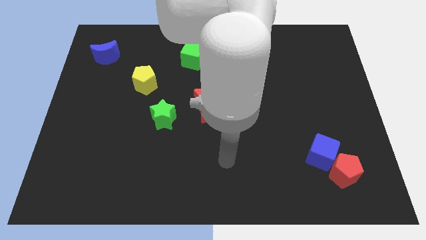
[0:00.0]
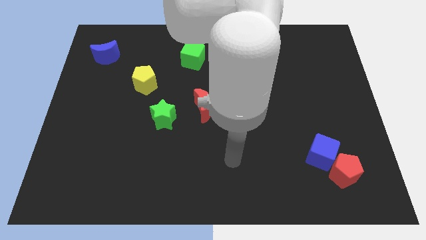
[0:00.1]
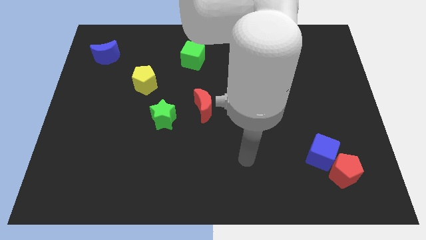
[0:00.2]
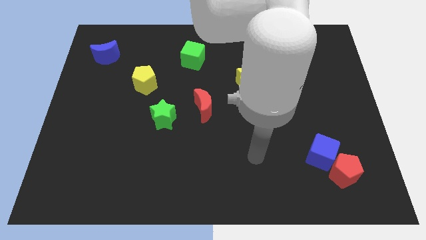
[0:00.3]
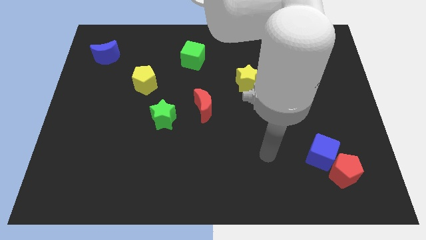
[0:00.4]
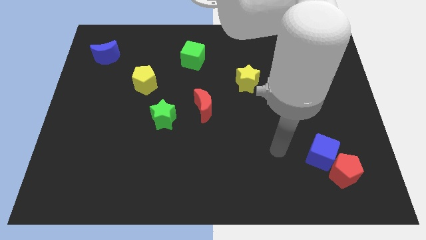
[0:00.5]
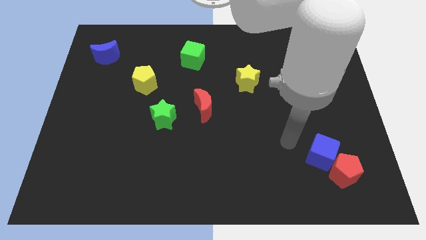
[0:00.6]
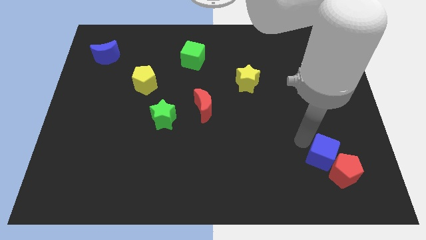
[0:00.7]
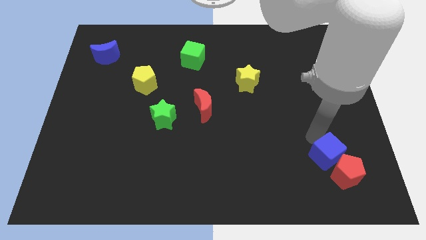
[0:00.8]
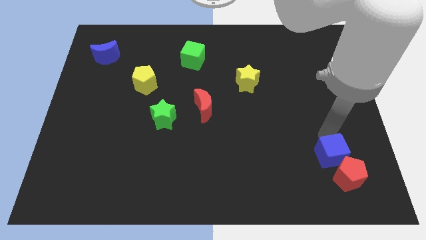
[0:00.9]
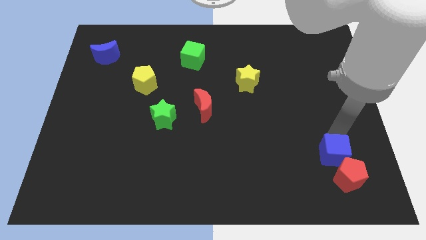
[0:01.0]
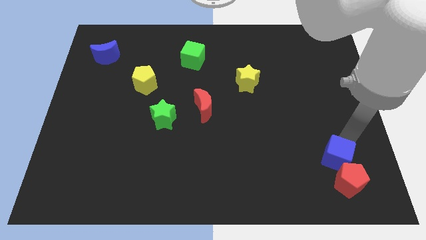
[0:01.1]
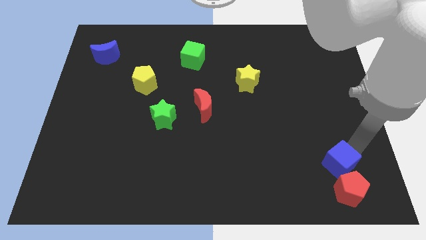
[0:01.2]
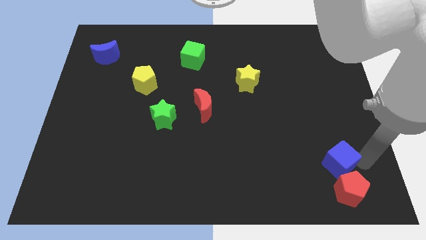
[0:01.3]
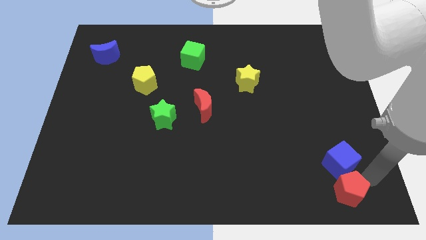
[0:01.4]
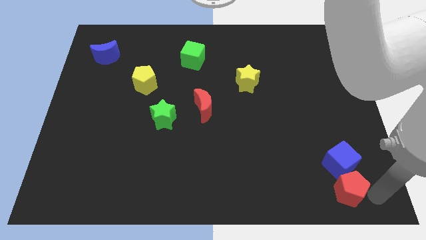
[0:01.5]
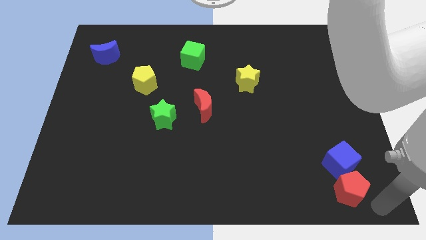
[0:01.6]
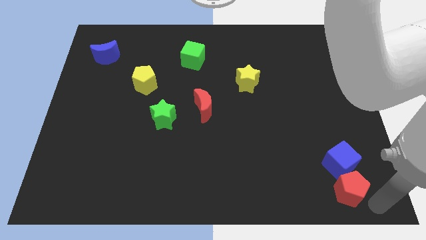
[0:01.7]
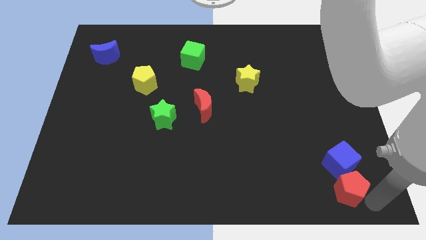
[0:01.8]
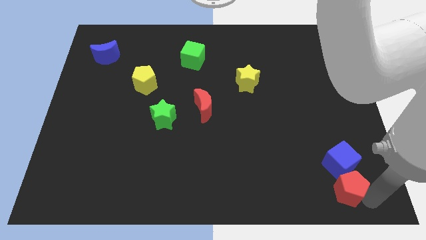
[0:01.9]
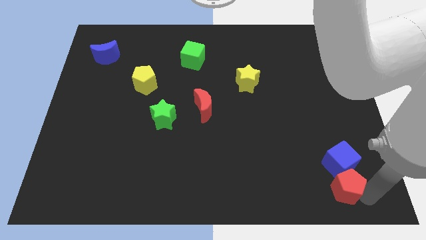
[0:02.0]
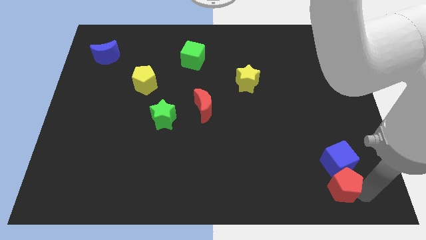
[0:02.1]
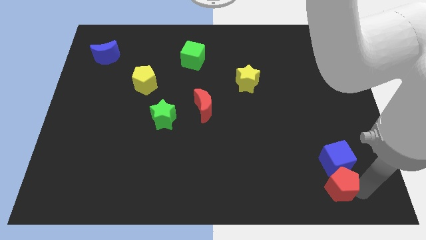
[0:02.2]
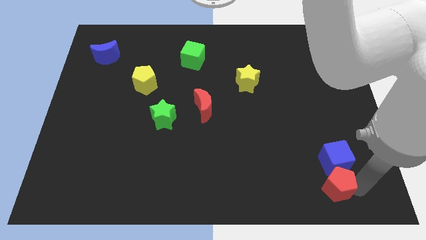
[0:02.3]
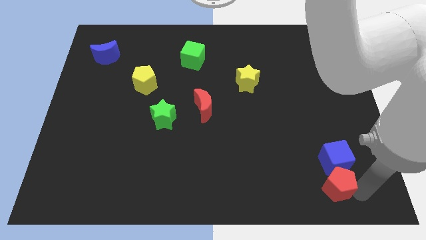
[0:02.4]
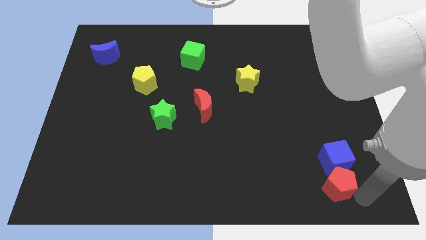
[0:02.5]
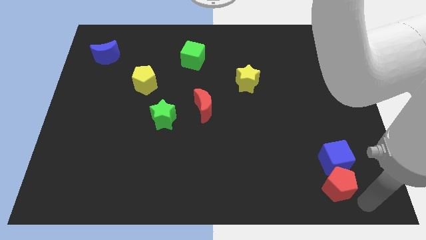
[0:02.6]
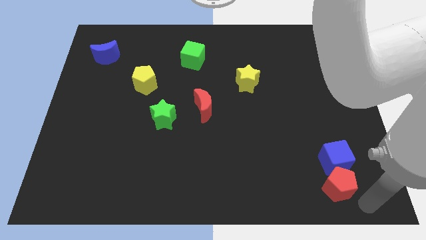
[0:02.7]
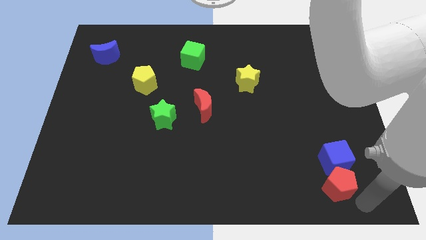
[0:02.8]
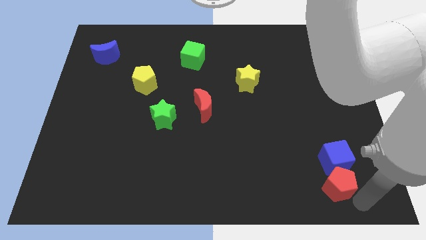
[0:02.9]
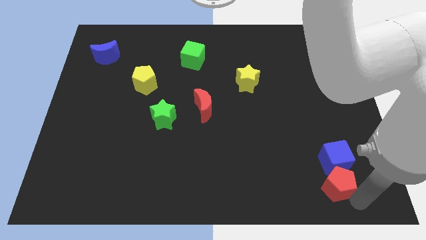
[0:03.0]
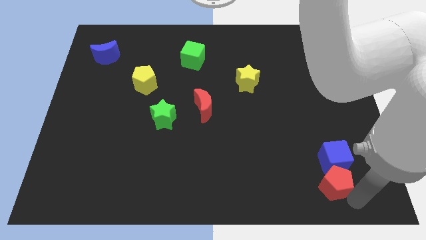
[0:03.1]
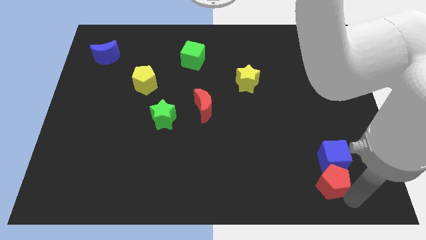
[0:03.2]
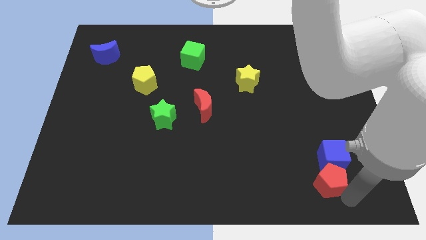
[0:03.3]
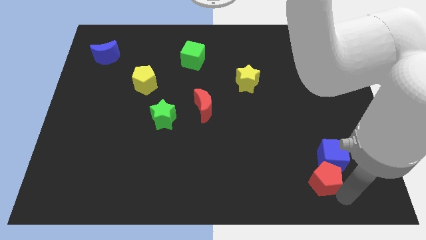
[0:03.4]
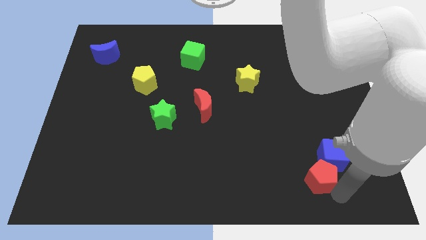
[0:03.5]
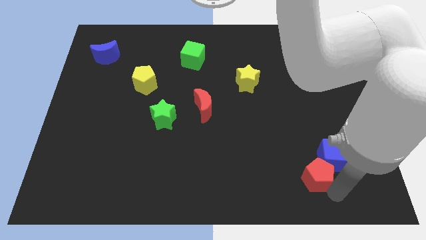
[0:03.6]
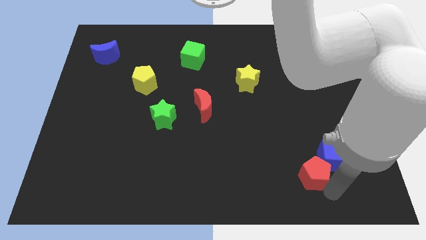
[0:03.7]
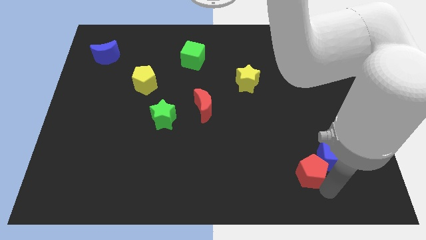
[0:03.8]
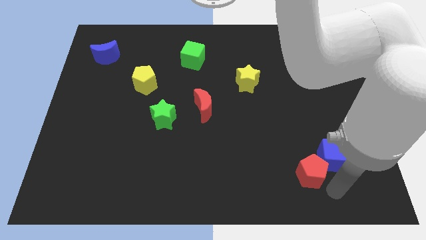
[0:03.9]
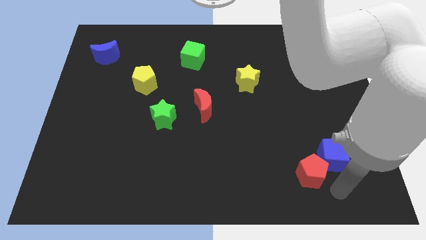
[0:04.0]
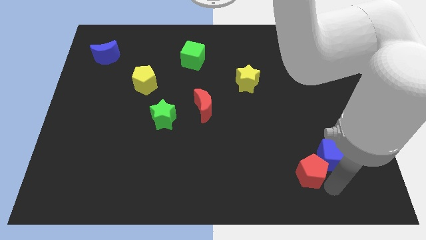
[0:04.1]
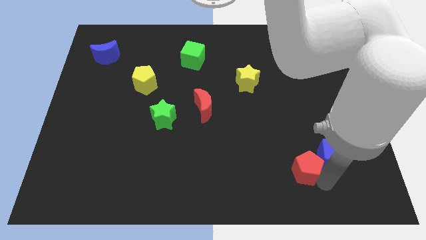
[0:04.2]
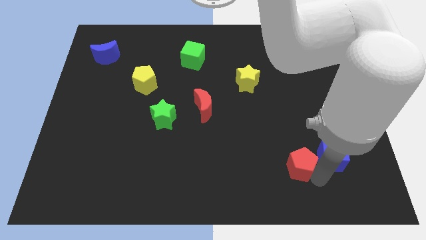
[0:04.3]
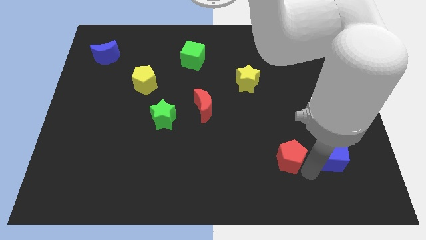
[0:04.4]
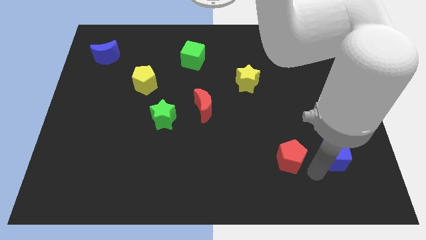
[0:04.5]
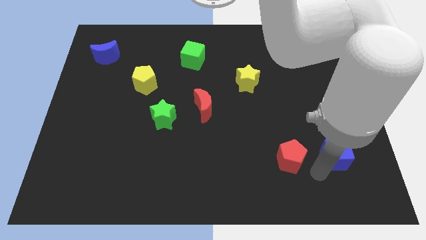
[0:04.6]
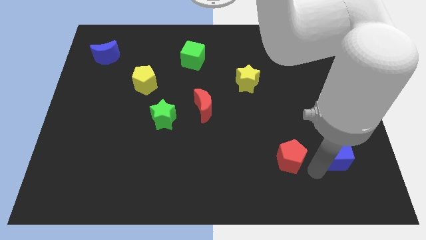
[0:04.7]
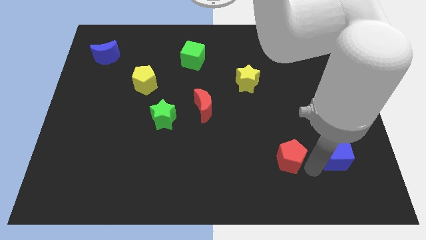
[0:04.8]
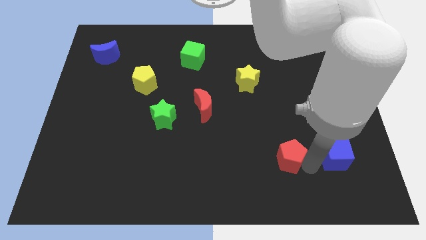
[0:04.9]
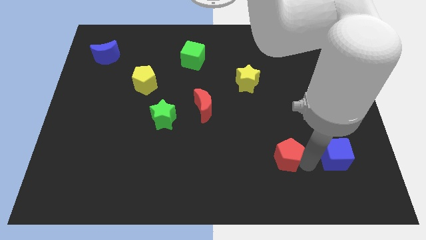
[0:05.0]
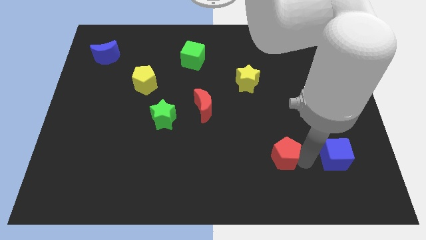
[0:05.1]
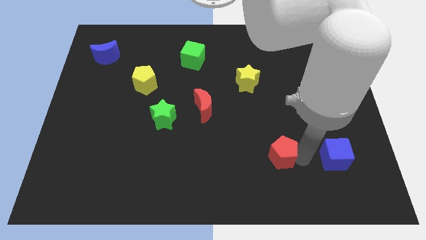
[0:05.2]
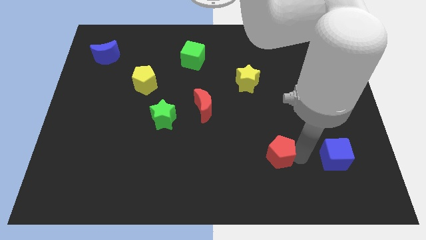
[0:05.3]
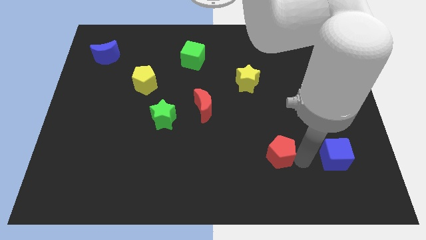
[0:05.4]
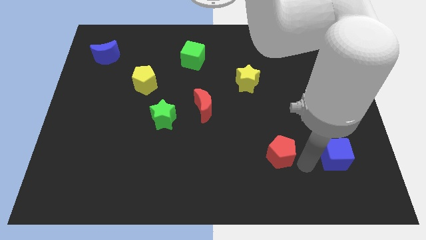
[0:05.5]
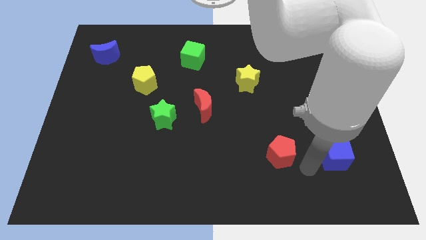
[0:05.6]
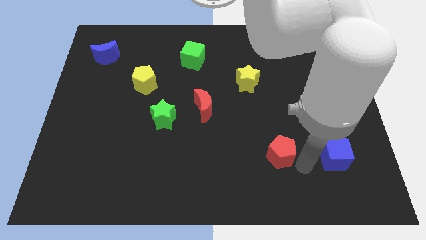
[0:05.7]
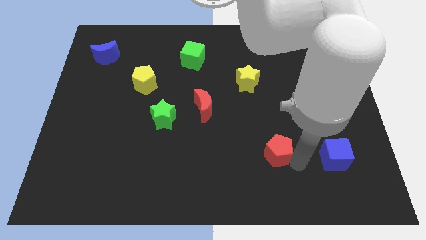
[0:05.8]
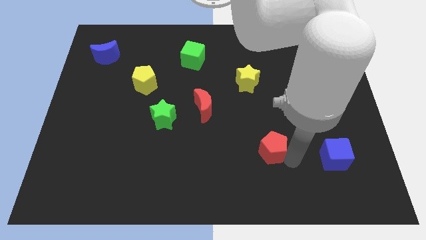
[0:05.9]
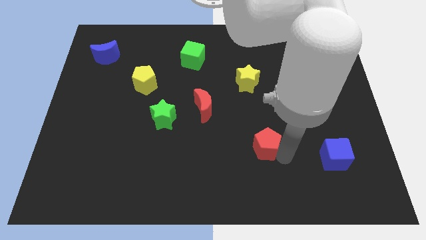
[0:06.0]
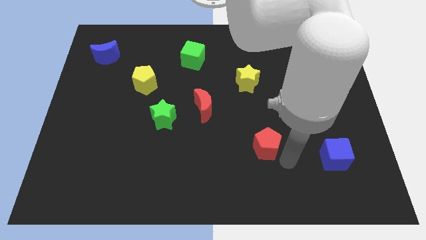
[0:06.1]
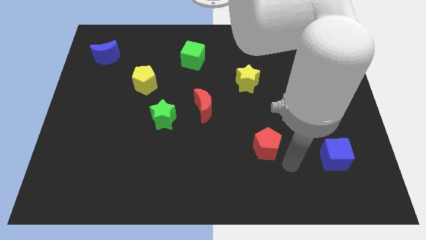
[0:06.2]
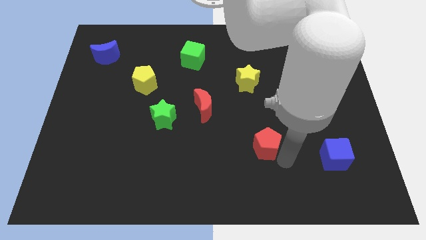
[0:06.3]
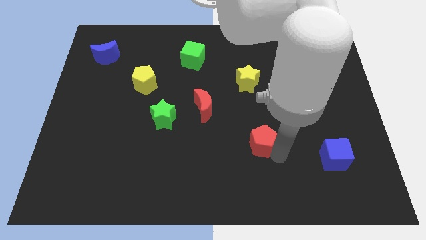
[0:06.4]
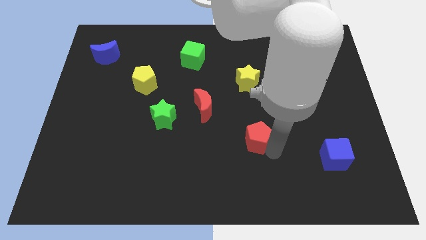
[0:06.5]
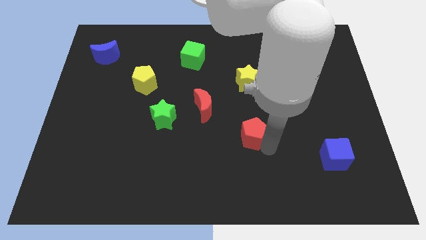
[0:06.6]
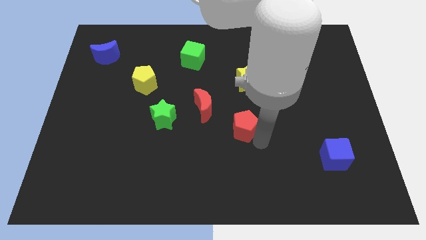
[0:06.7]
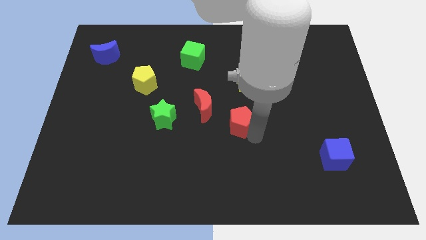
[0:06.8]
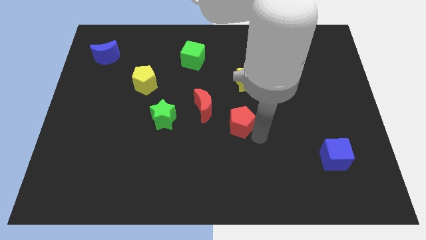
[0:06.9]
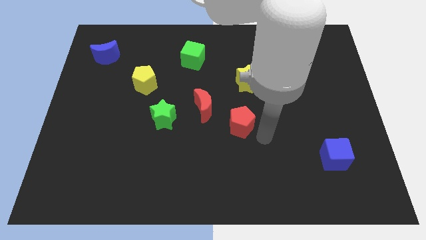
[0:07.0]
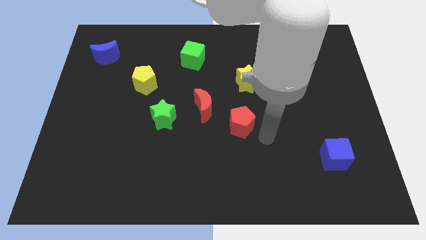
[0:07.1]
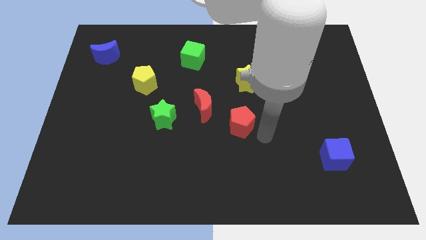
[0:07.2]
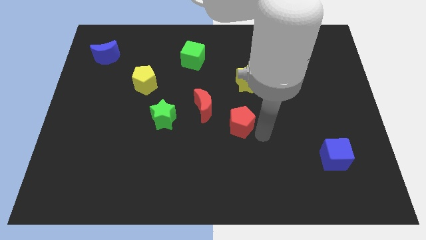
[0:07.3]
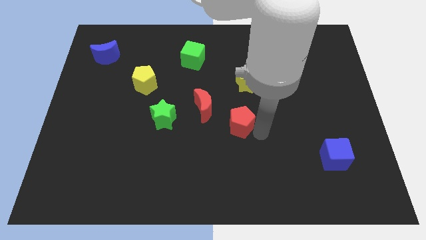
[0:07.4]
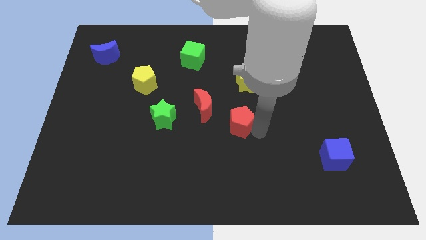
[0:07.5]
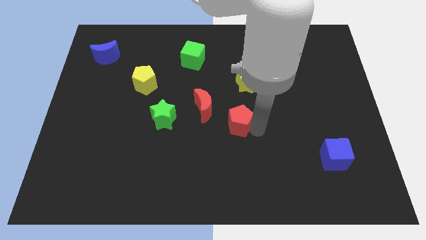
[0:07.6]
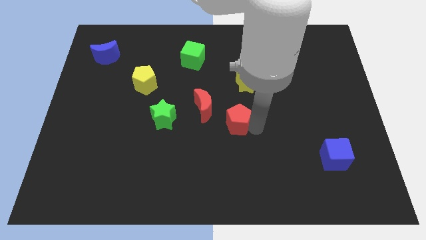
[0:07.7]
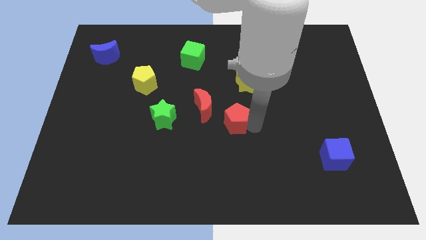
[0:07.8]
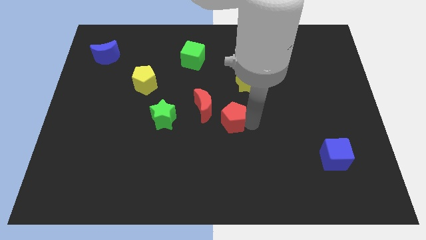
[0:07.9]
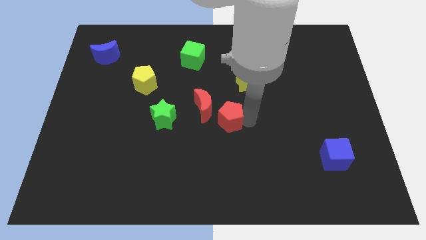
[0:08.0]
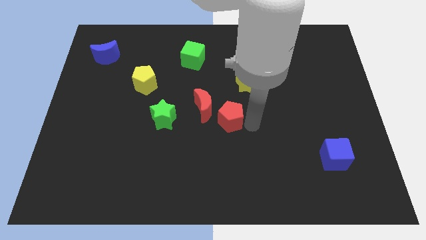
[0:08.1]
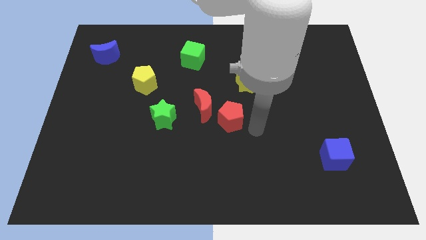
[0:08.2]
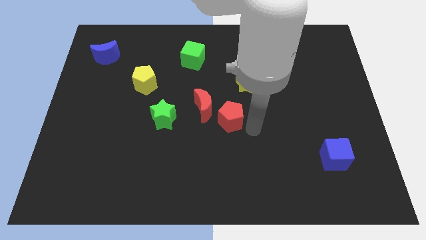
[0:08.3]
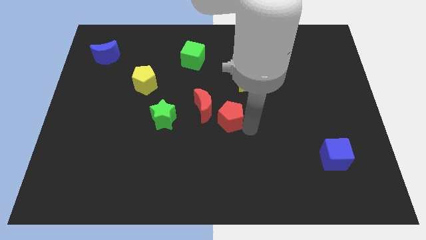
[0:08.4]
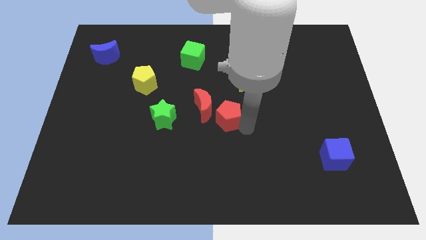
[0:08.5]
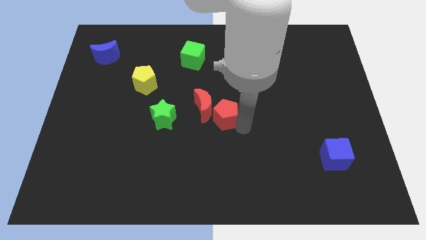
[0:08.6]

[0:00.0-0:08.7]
put the red pentagon close to the red moon
